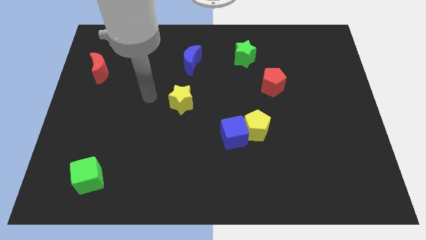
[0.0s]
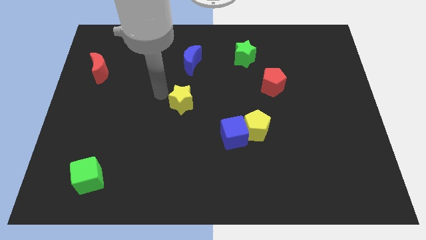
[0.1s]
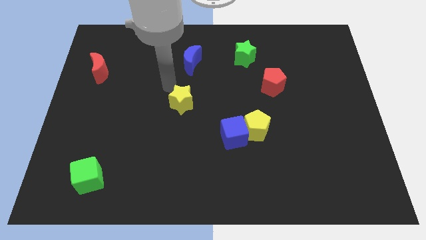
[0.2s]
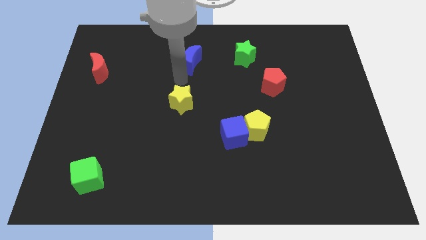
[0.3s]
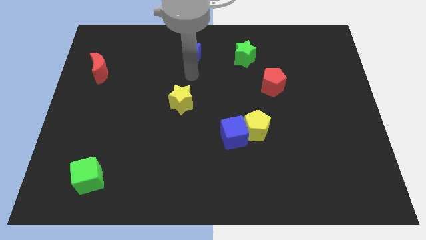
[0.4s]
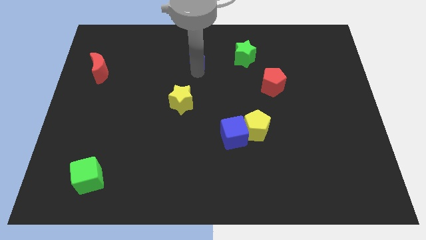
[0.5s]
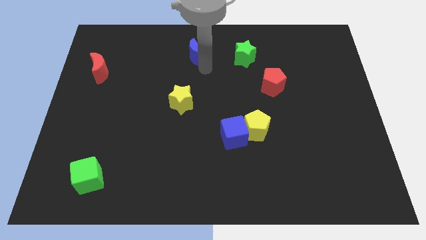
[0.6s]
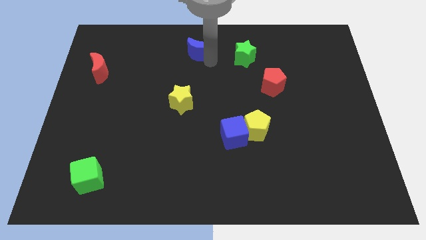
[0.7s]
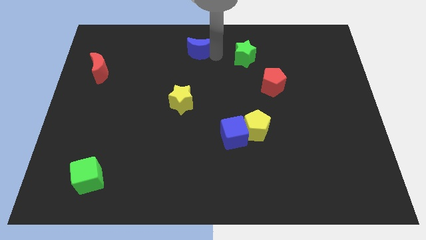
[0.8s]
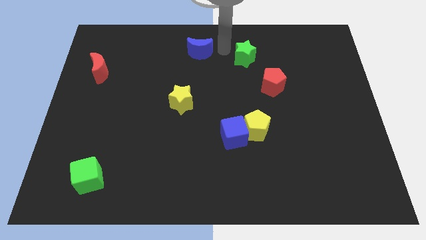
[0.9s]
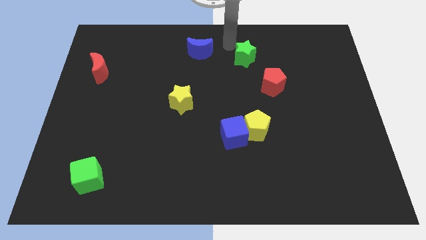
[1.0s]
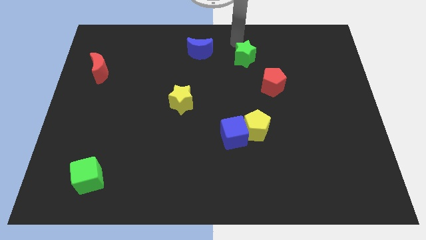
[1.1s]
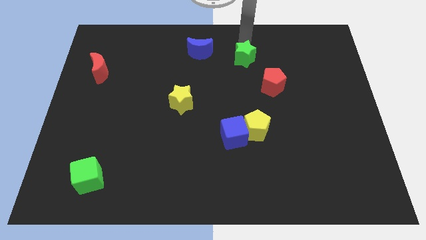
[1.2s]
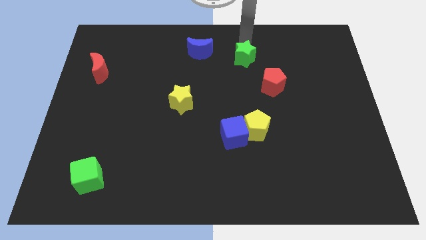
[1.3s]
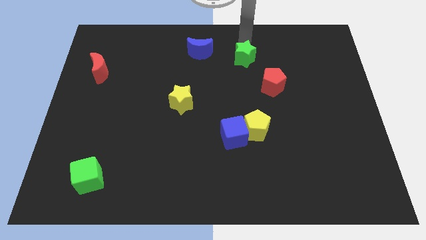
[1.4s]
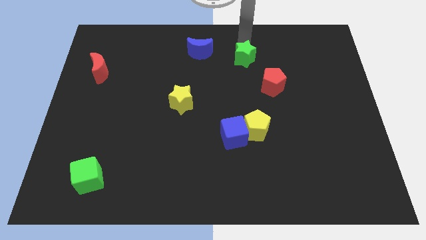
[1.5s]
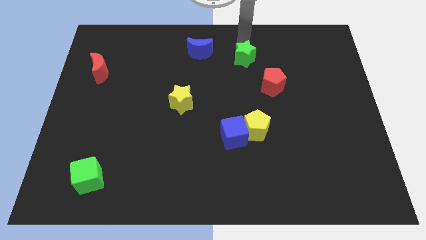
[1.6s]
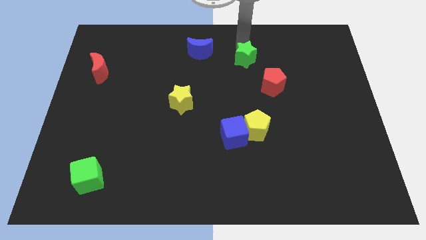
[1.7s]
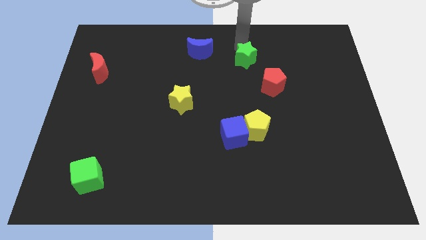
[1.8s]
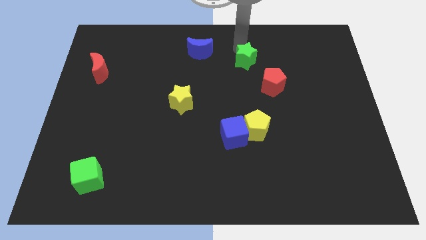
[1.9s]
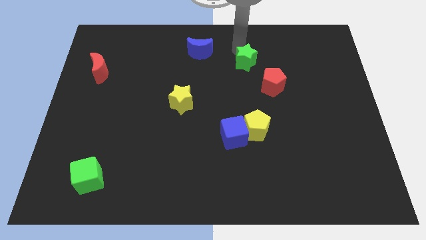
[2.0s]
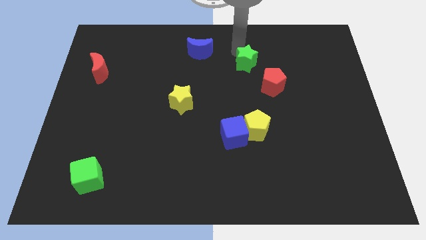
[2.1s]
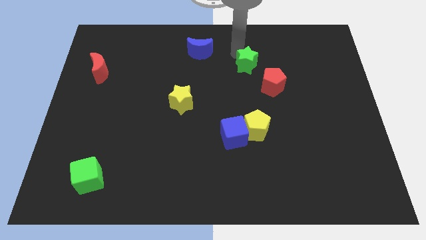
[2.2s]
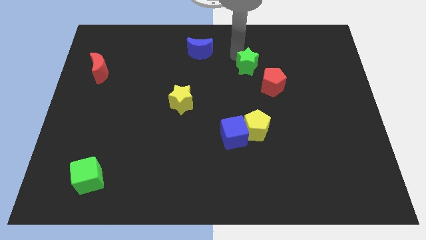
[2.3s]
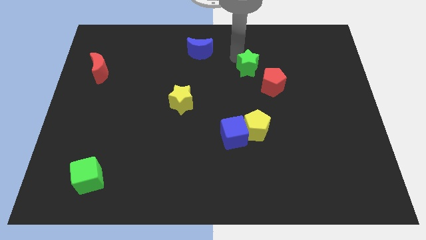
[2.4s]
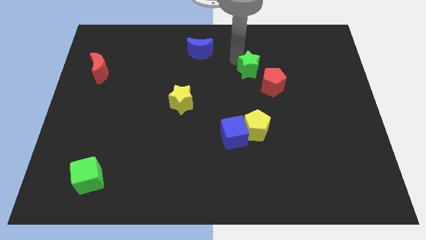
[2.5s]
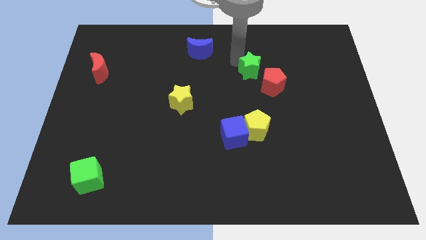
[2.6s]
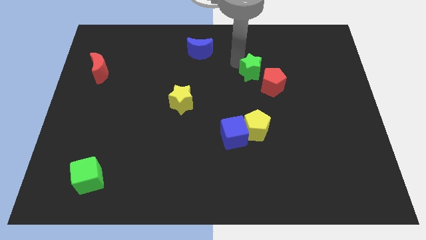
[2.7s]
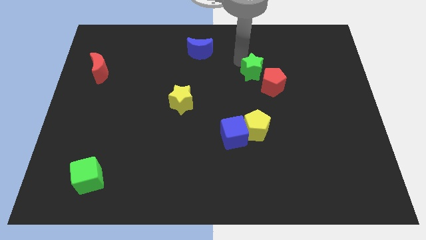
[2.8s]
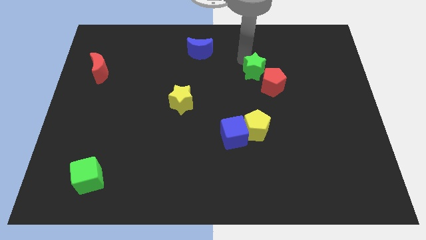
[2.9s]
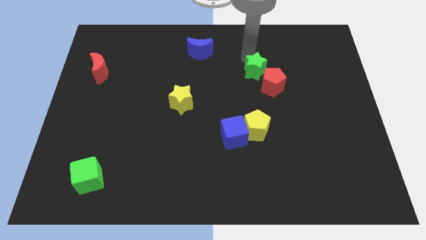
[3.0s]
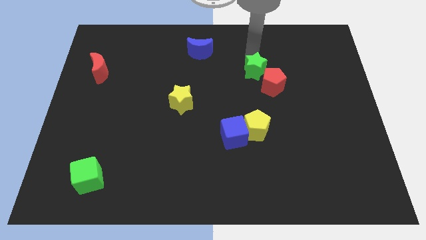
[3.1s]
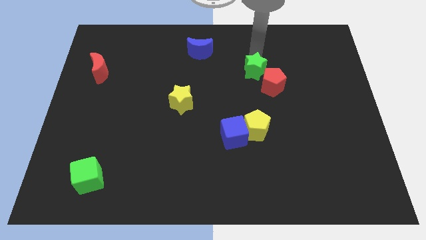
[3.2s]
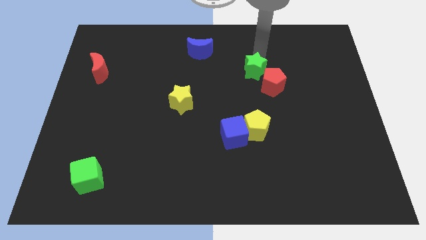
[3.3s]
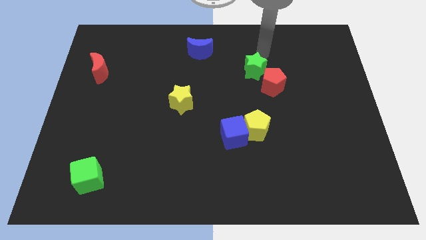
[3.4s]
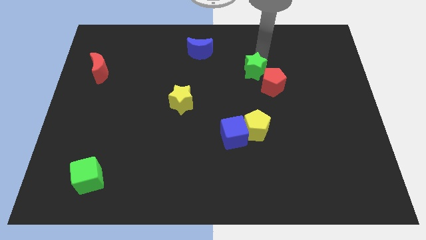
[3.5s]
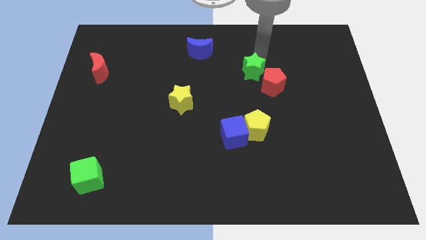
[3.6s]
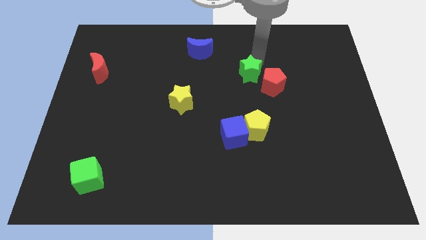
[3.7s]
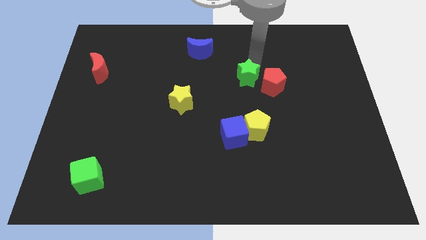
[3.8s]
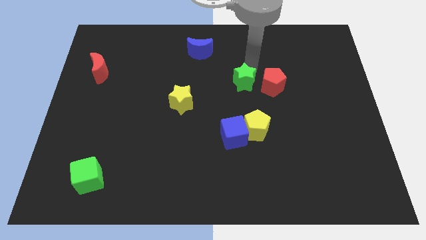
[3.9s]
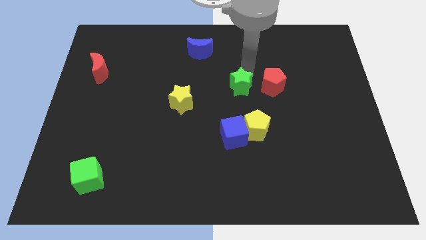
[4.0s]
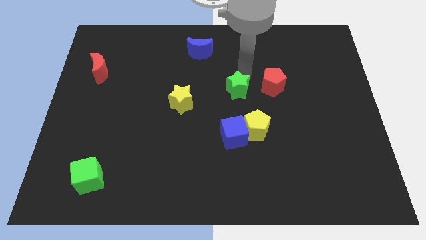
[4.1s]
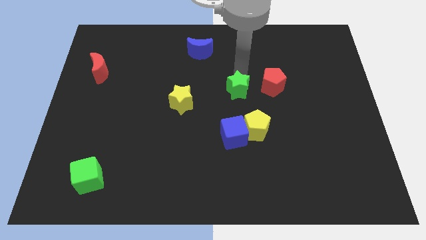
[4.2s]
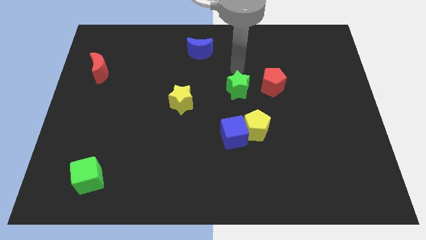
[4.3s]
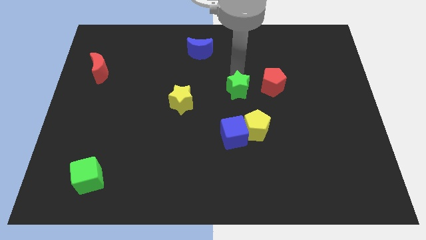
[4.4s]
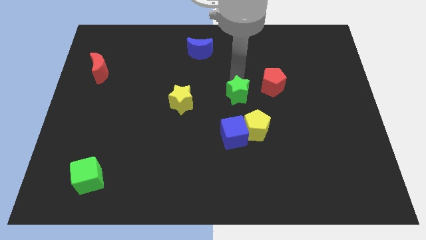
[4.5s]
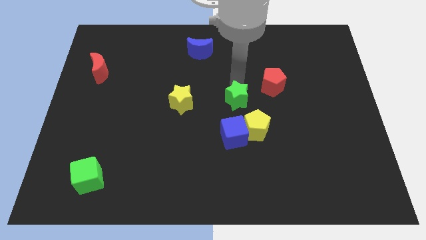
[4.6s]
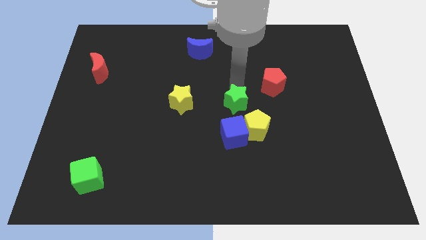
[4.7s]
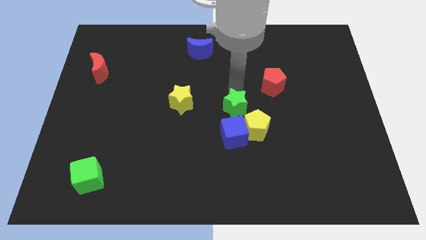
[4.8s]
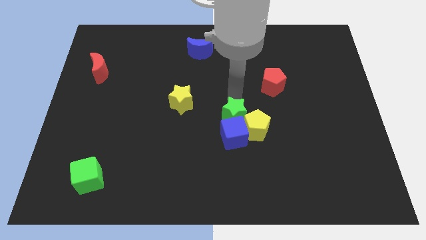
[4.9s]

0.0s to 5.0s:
put the green star towards the blue cube

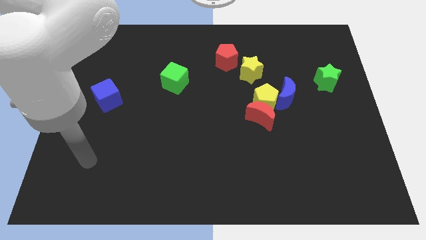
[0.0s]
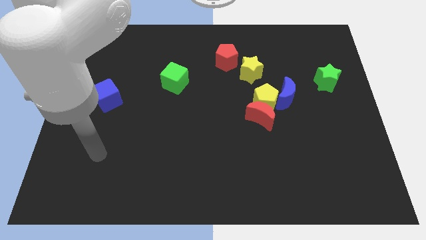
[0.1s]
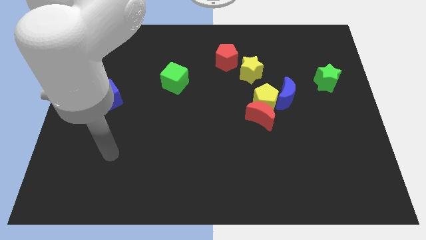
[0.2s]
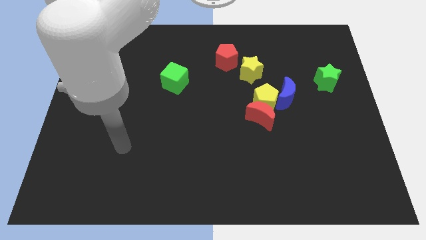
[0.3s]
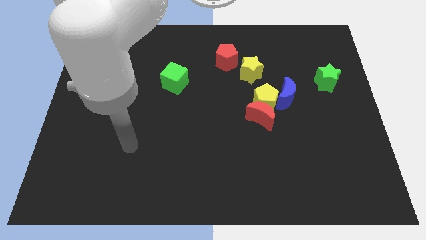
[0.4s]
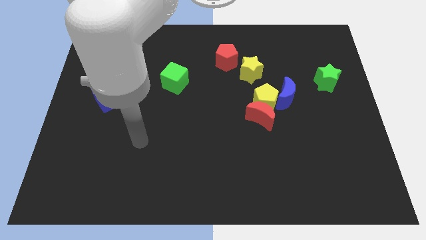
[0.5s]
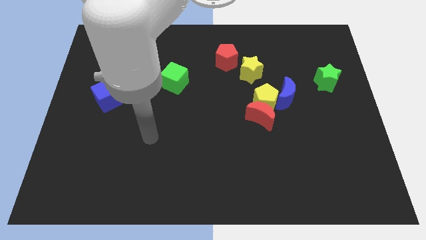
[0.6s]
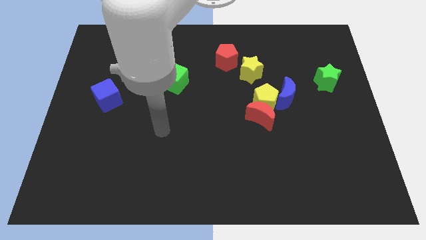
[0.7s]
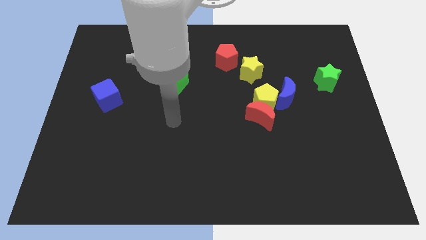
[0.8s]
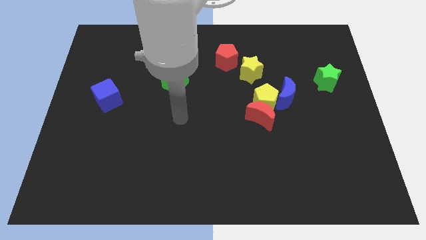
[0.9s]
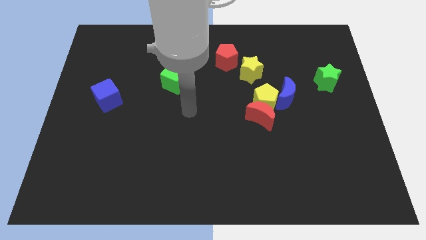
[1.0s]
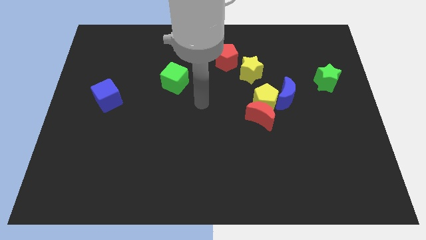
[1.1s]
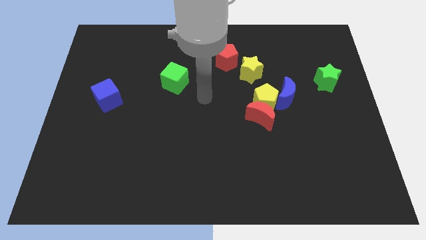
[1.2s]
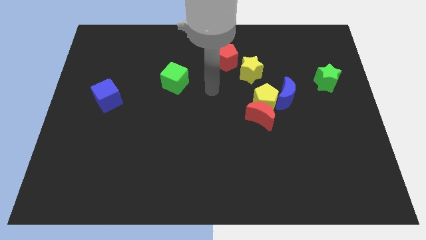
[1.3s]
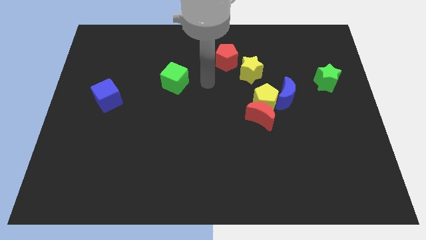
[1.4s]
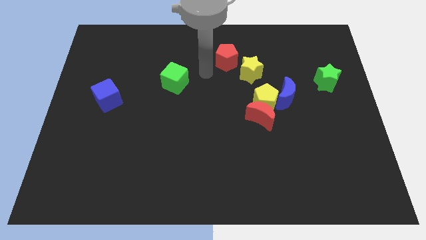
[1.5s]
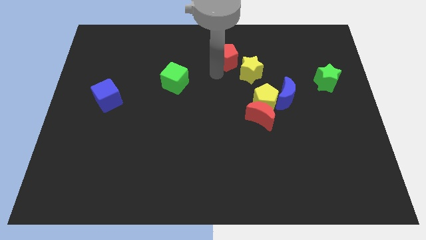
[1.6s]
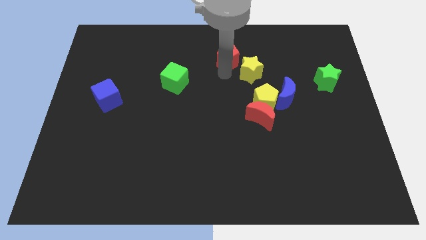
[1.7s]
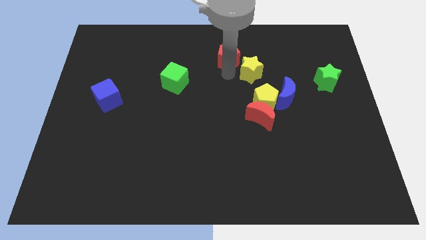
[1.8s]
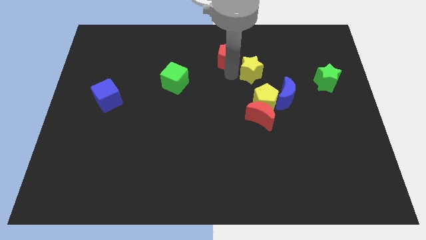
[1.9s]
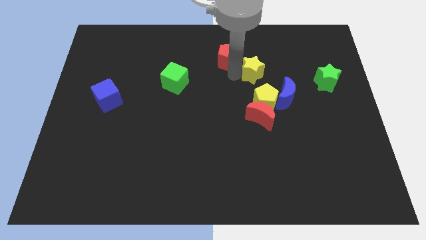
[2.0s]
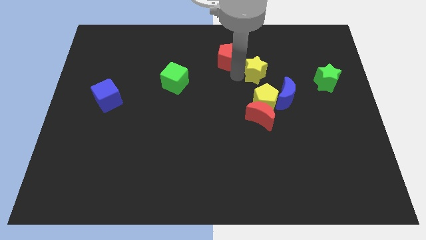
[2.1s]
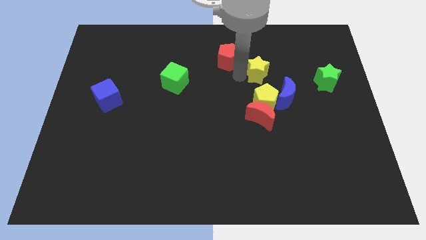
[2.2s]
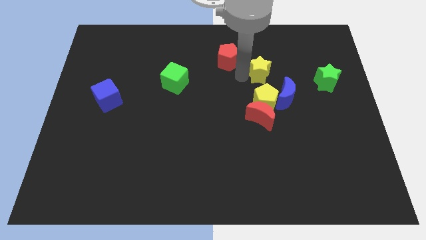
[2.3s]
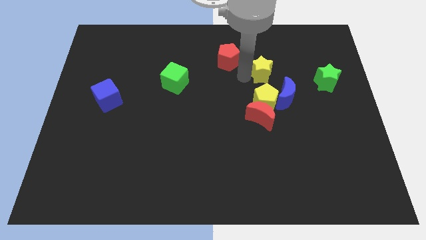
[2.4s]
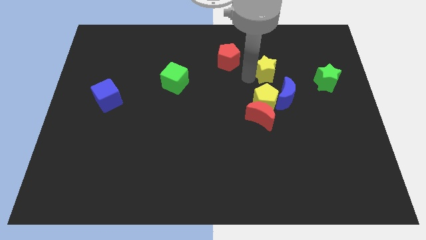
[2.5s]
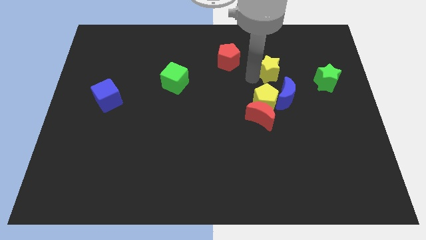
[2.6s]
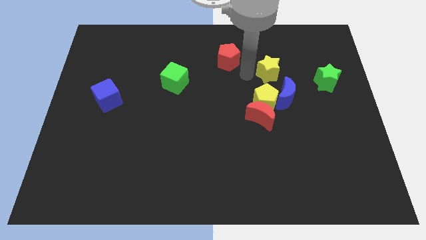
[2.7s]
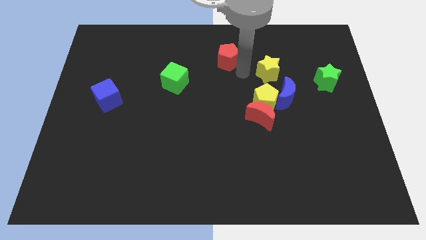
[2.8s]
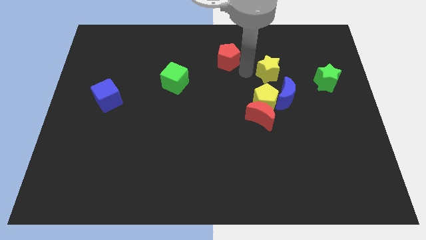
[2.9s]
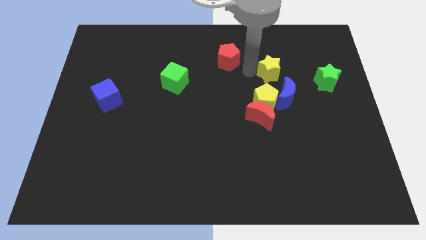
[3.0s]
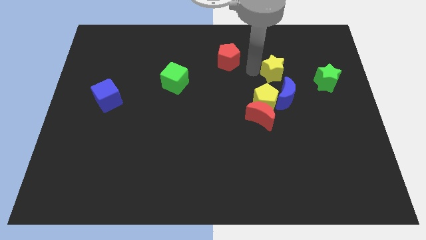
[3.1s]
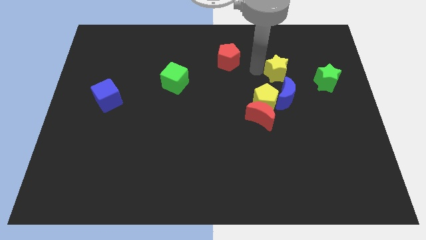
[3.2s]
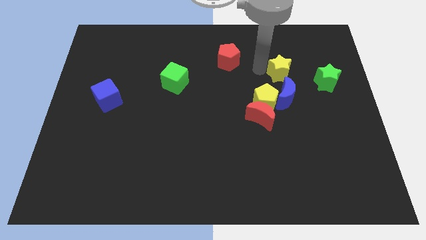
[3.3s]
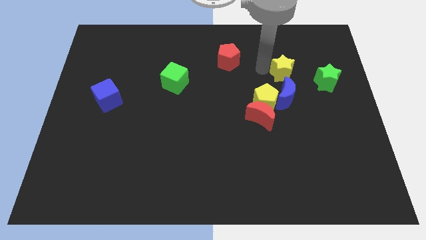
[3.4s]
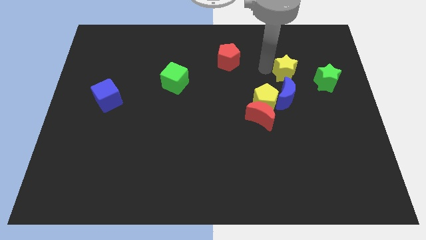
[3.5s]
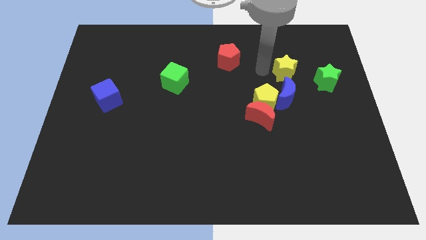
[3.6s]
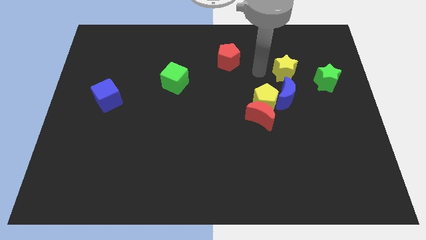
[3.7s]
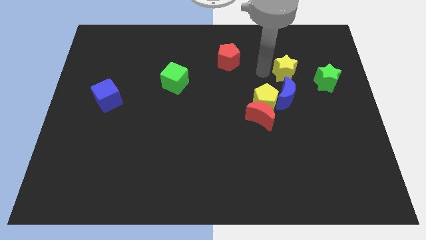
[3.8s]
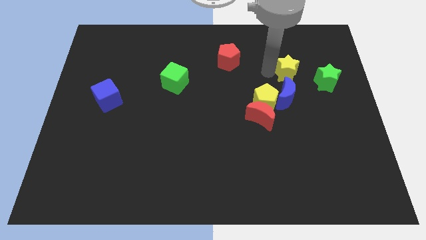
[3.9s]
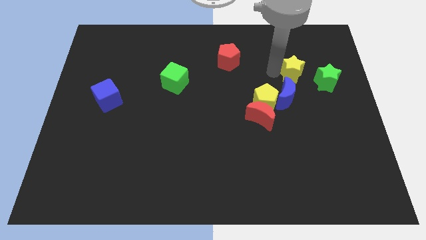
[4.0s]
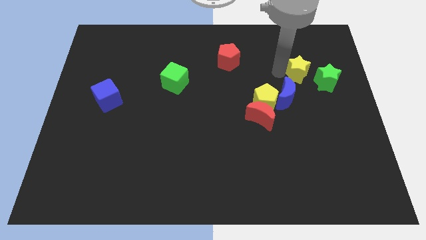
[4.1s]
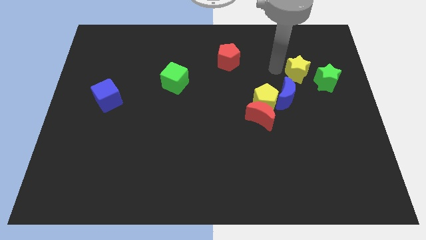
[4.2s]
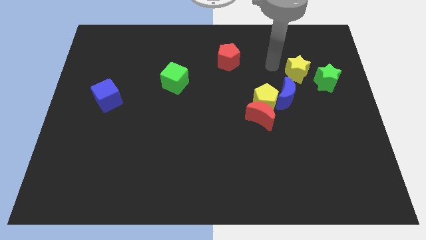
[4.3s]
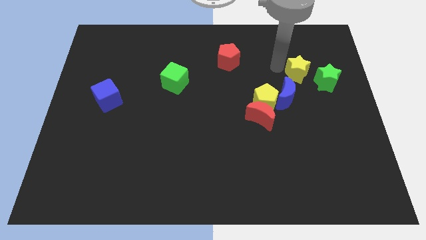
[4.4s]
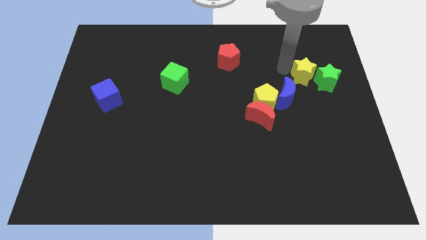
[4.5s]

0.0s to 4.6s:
move the yellow star to the green star
